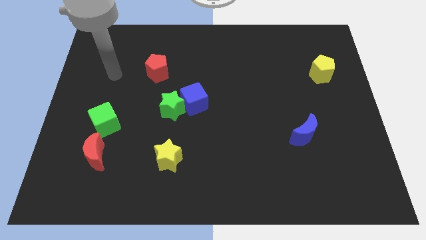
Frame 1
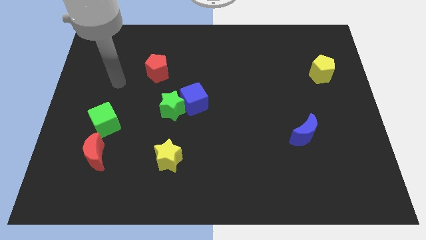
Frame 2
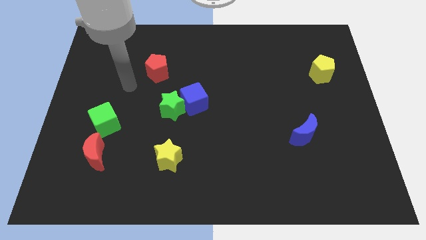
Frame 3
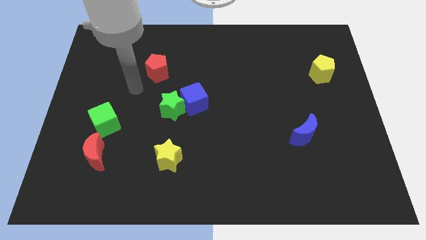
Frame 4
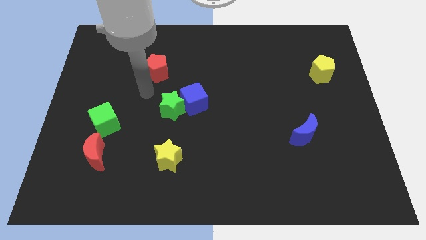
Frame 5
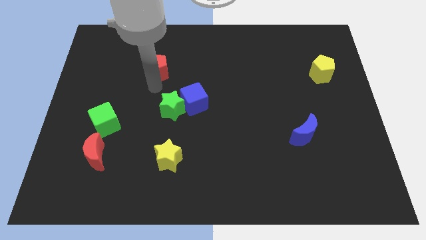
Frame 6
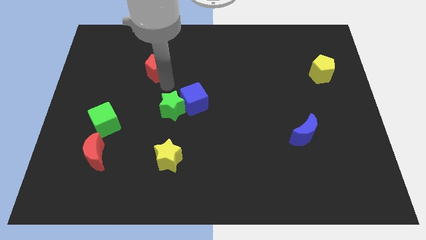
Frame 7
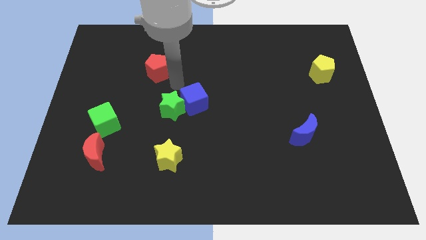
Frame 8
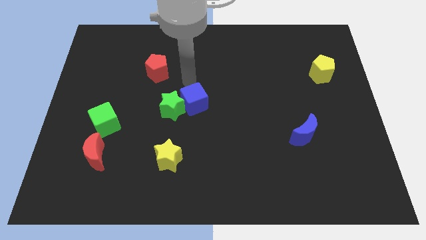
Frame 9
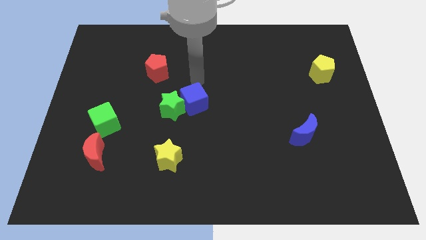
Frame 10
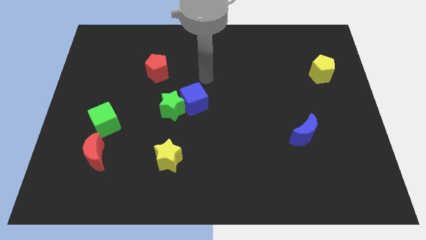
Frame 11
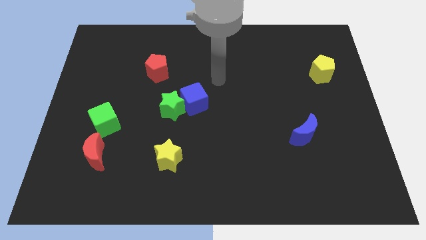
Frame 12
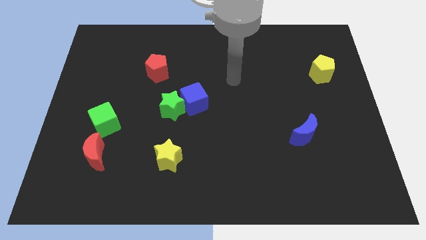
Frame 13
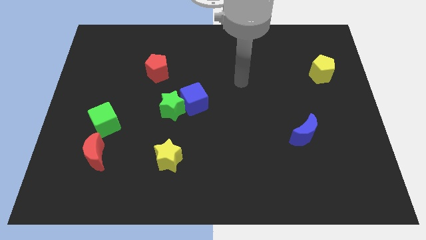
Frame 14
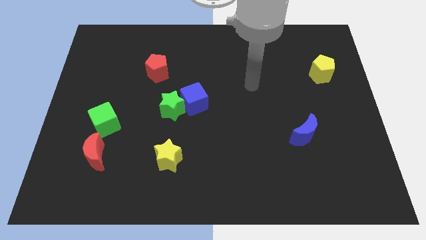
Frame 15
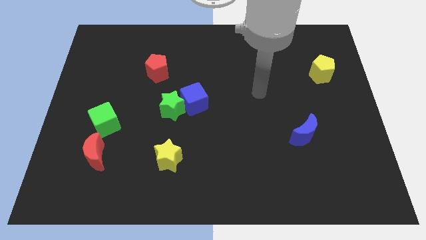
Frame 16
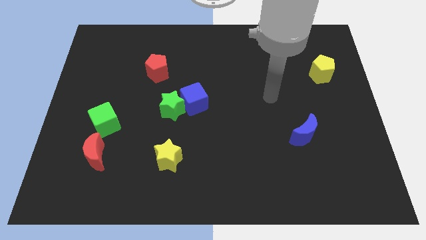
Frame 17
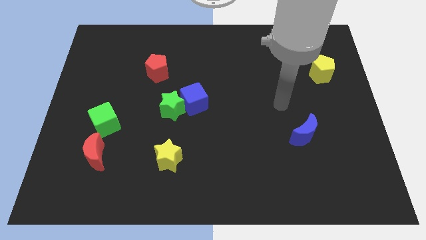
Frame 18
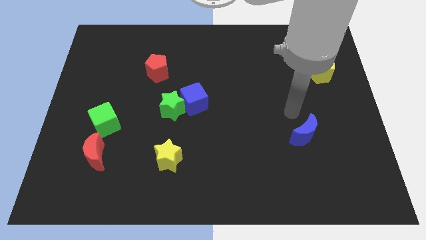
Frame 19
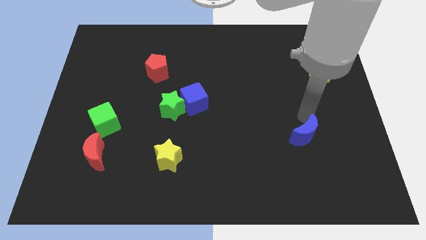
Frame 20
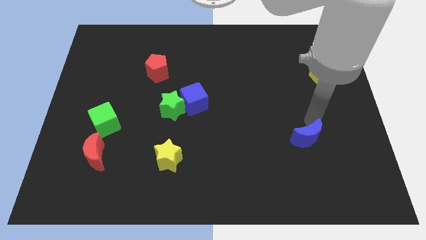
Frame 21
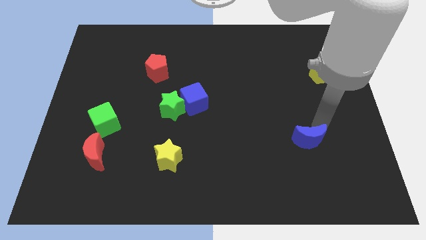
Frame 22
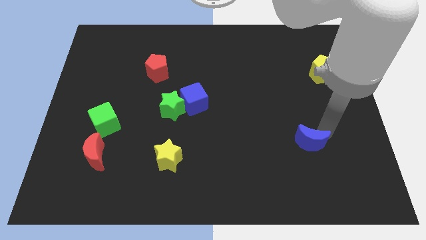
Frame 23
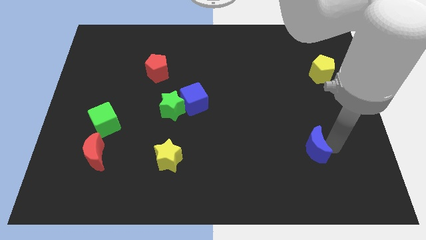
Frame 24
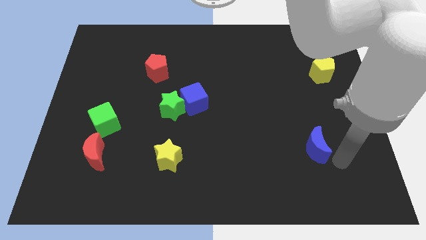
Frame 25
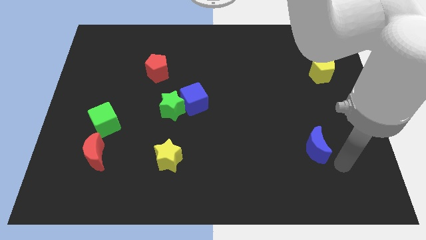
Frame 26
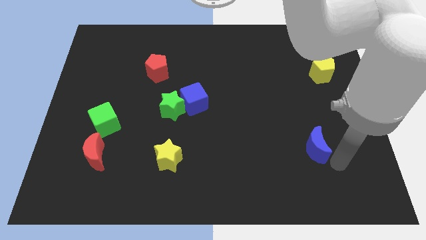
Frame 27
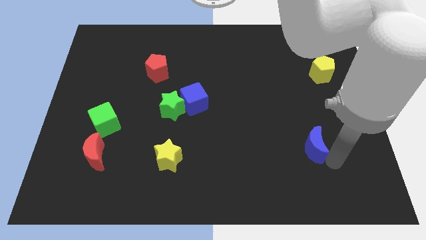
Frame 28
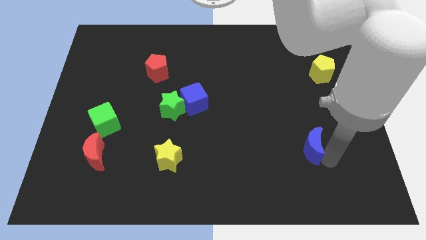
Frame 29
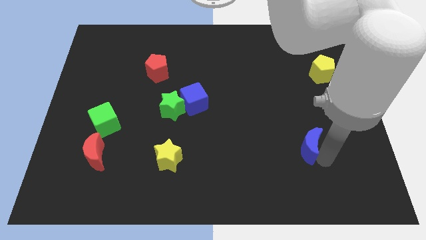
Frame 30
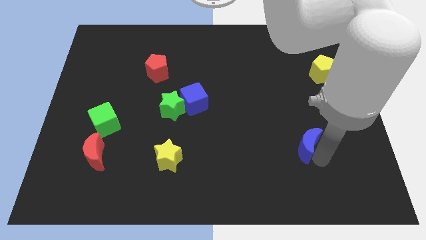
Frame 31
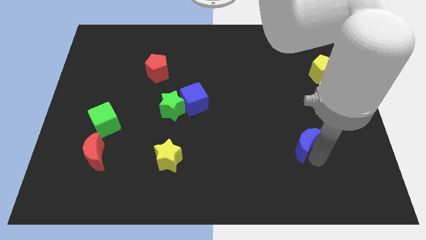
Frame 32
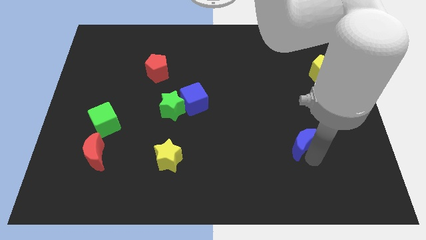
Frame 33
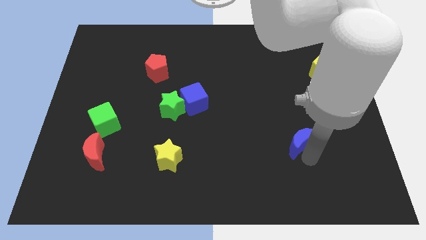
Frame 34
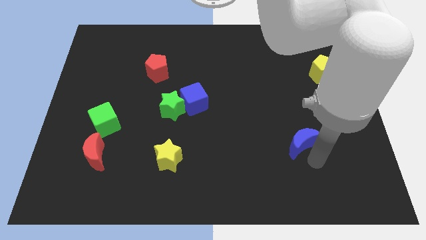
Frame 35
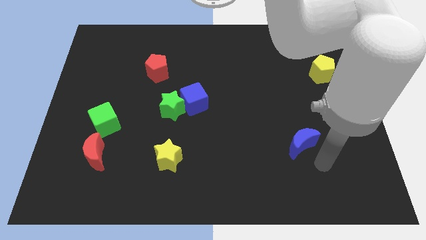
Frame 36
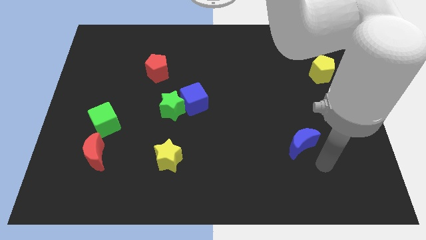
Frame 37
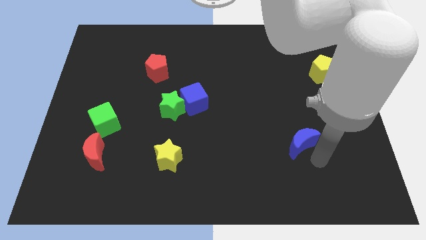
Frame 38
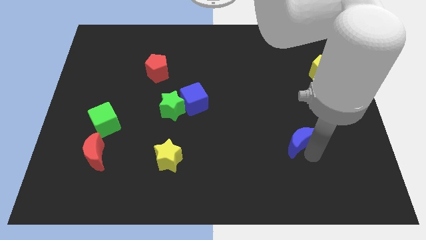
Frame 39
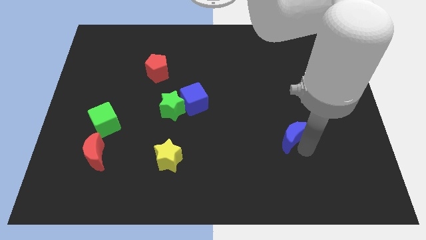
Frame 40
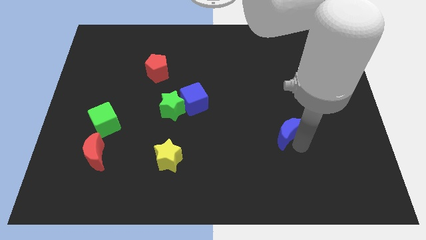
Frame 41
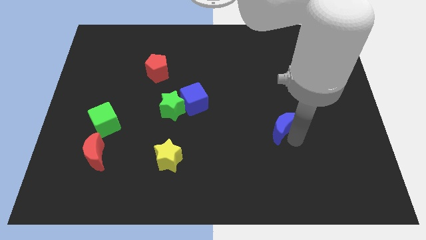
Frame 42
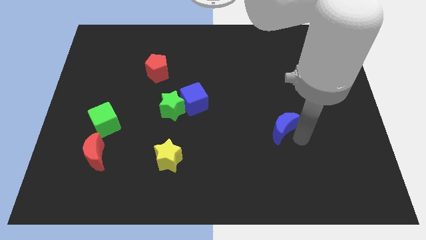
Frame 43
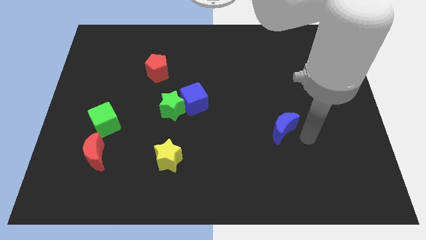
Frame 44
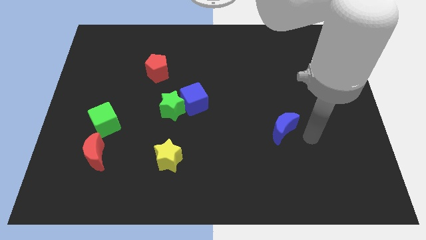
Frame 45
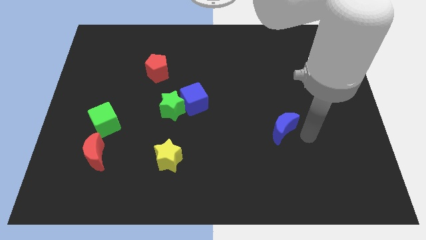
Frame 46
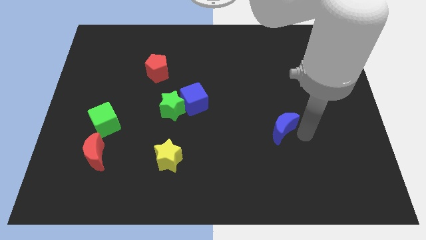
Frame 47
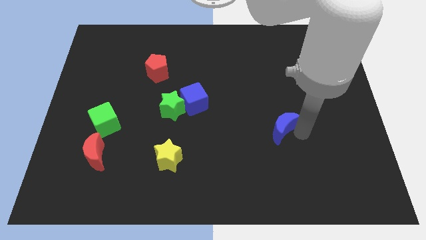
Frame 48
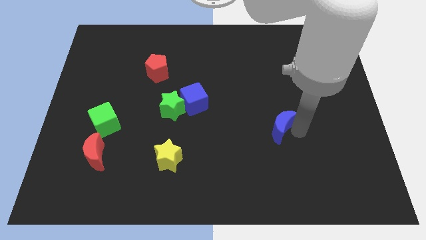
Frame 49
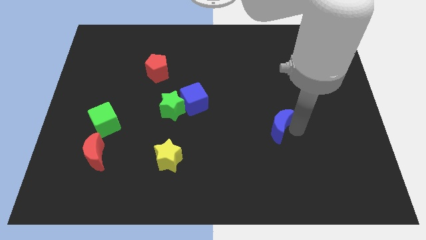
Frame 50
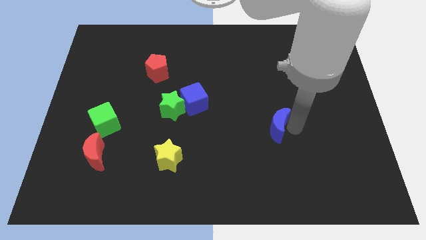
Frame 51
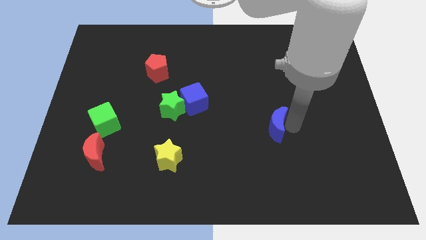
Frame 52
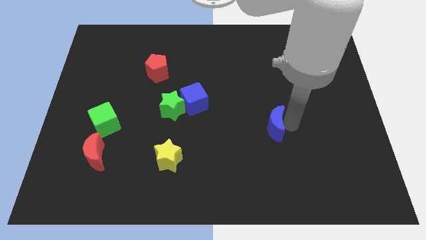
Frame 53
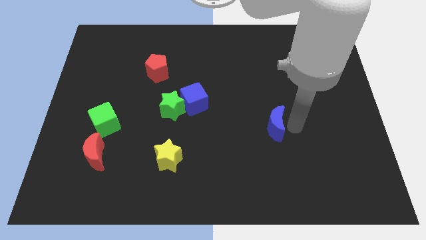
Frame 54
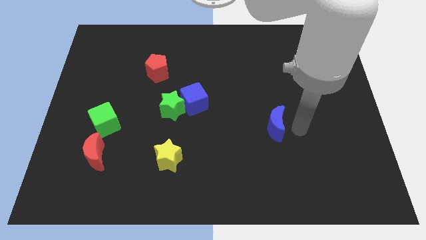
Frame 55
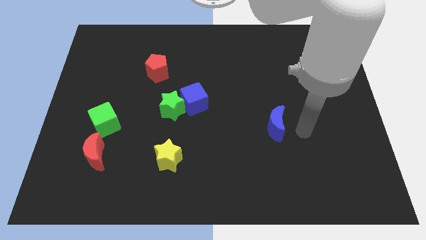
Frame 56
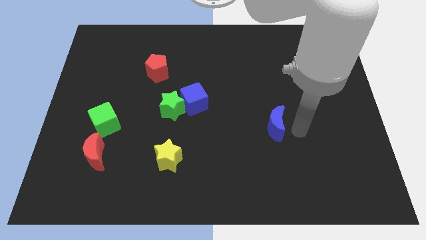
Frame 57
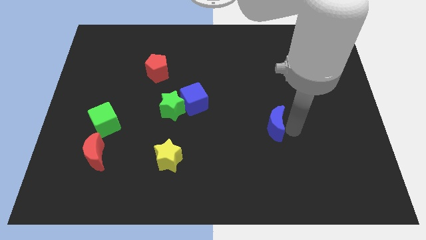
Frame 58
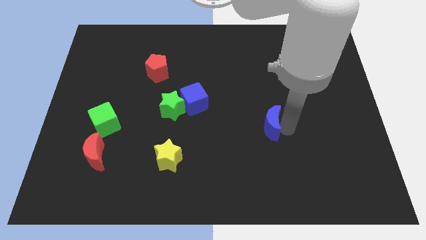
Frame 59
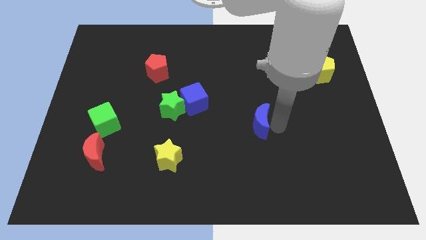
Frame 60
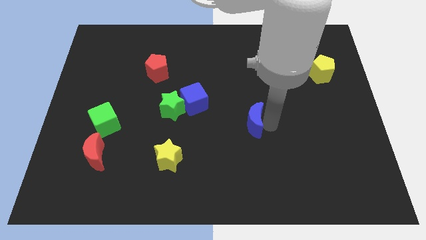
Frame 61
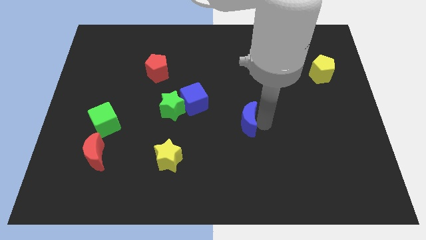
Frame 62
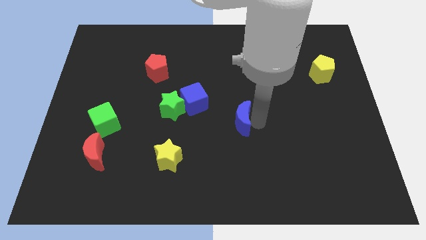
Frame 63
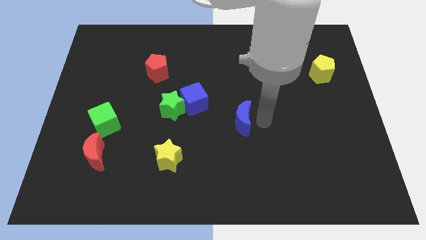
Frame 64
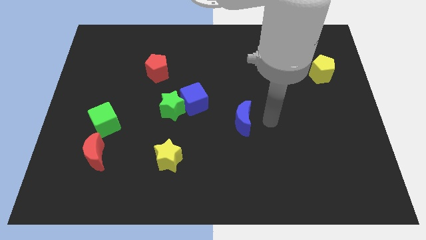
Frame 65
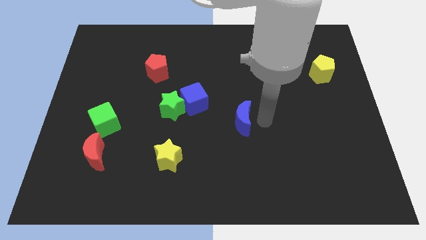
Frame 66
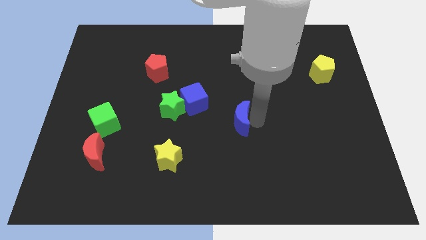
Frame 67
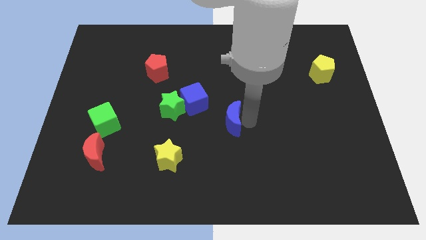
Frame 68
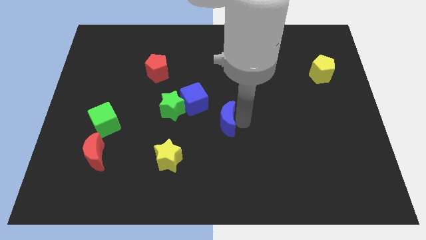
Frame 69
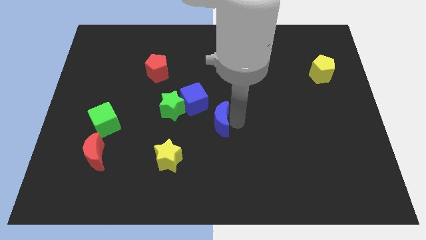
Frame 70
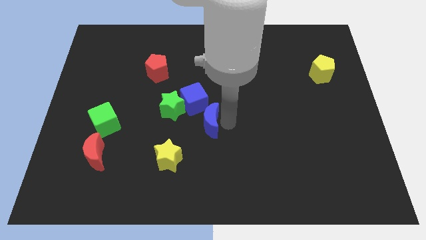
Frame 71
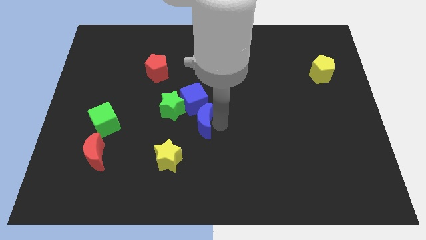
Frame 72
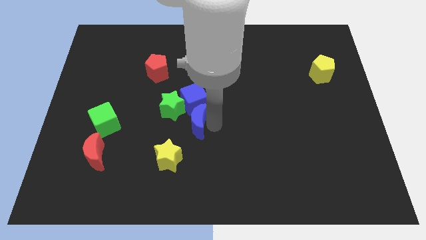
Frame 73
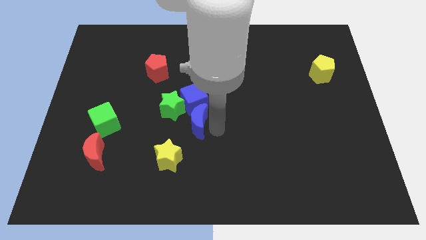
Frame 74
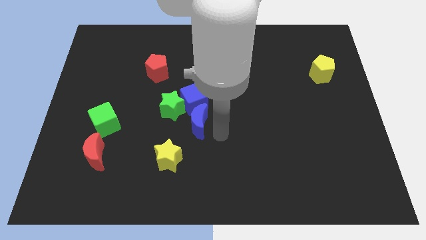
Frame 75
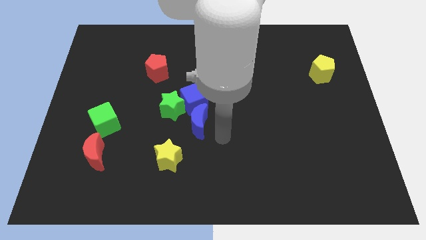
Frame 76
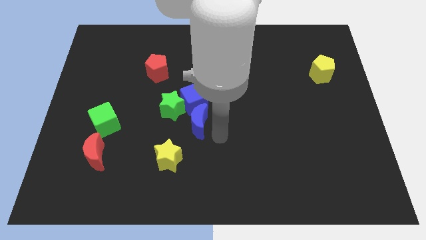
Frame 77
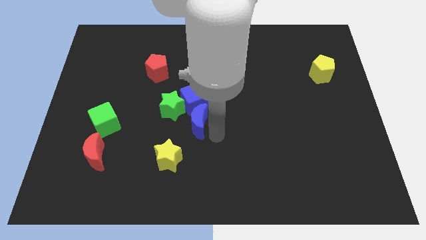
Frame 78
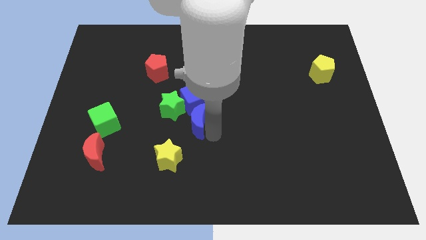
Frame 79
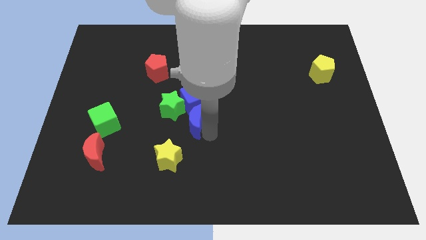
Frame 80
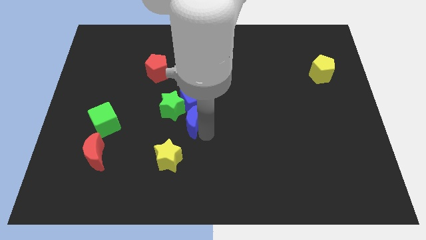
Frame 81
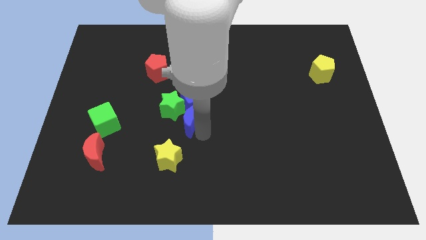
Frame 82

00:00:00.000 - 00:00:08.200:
push the blue moon next to the green star
